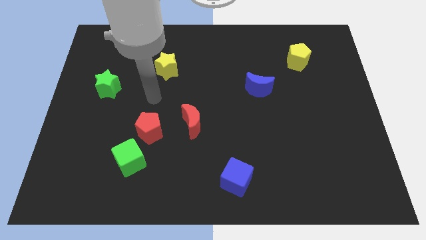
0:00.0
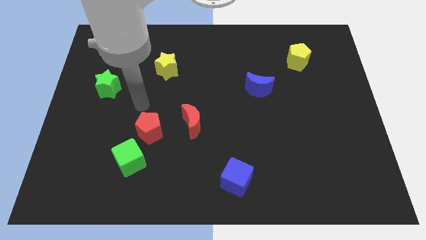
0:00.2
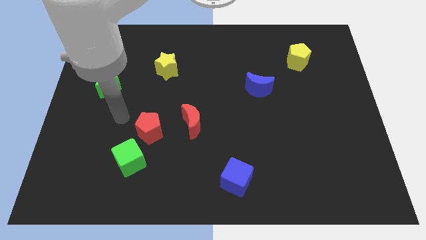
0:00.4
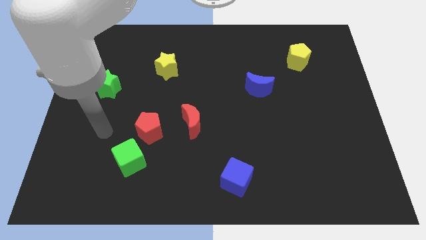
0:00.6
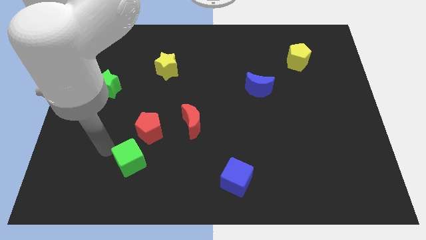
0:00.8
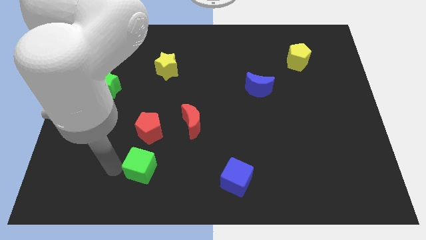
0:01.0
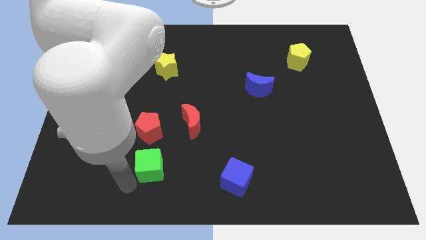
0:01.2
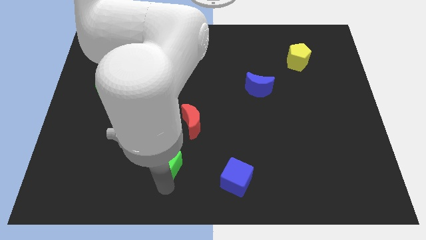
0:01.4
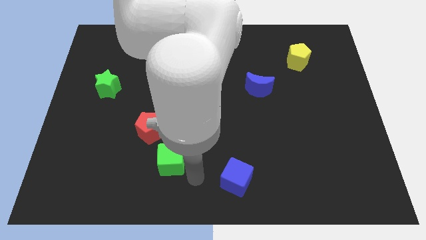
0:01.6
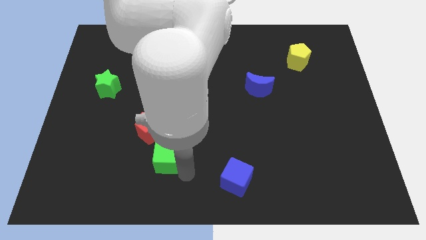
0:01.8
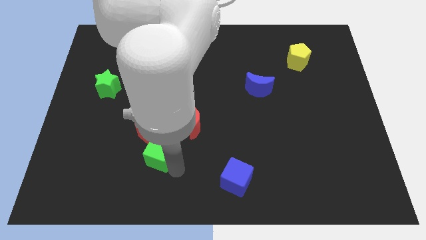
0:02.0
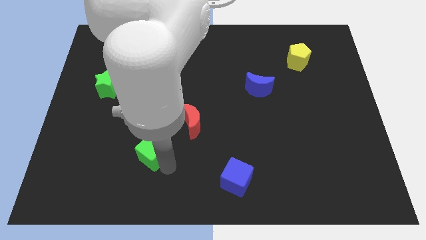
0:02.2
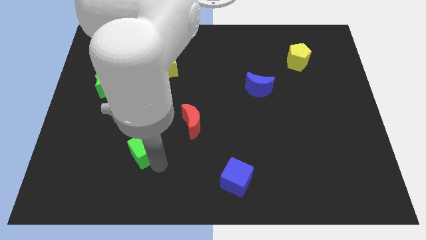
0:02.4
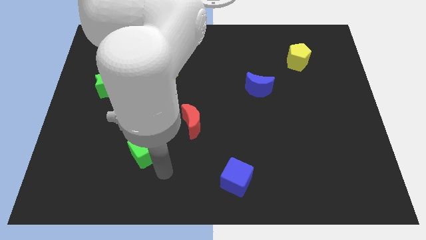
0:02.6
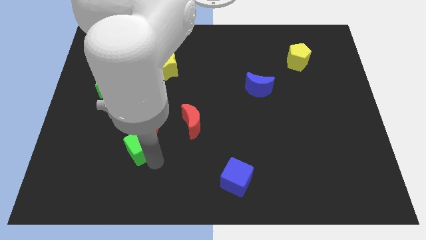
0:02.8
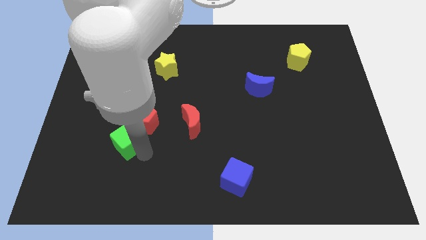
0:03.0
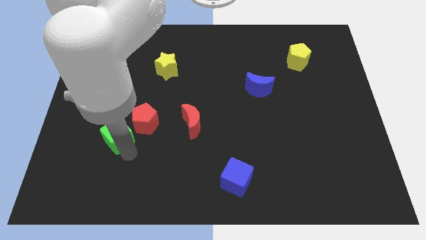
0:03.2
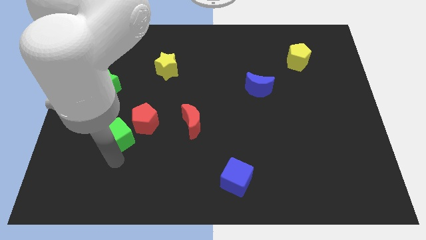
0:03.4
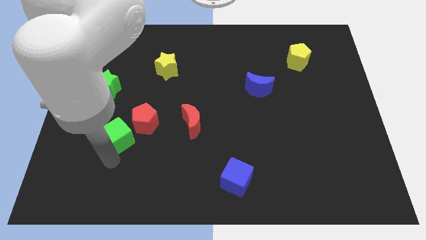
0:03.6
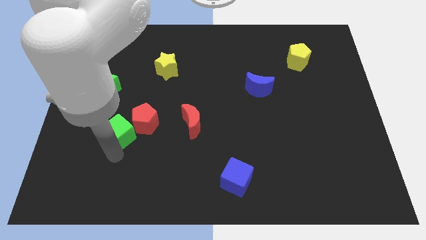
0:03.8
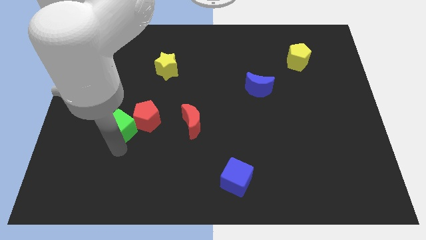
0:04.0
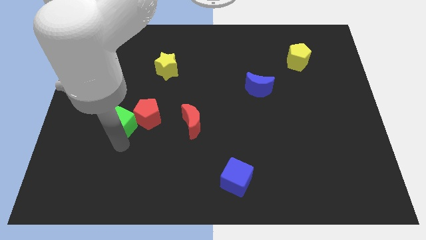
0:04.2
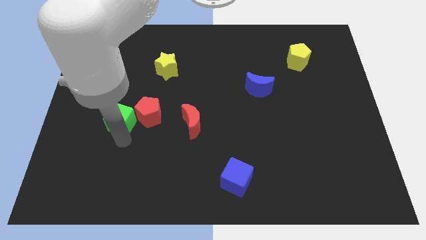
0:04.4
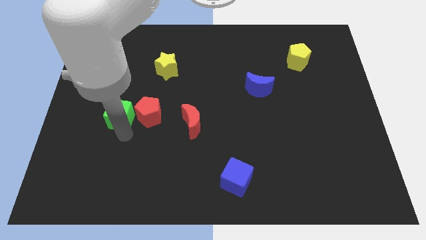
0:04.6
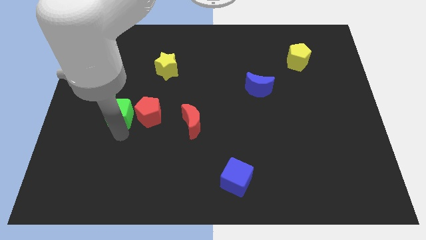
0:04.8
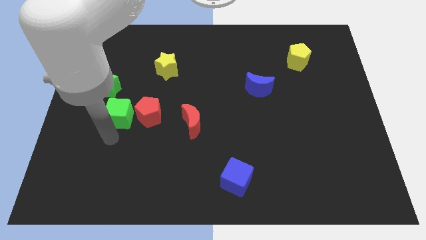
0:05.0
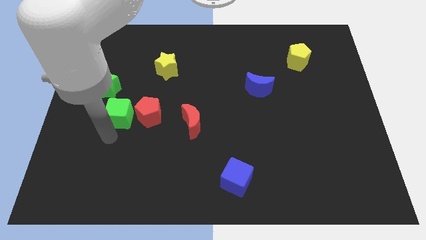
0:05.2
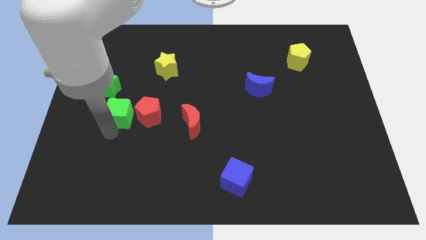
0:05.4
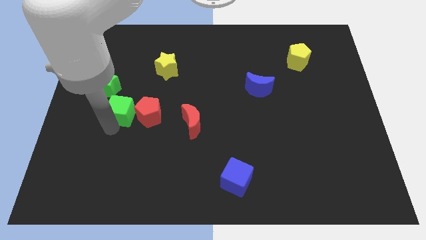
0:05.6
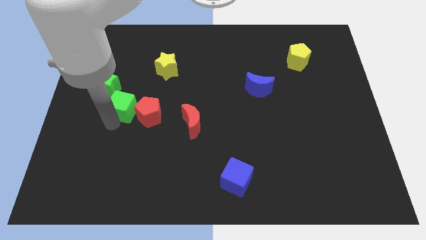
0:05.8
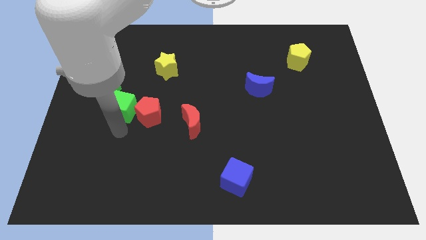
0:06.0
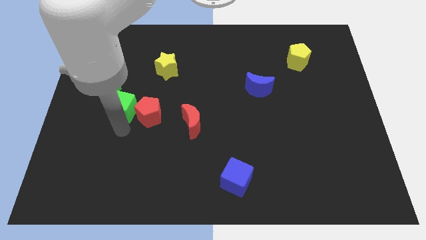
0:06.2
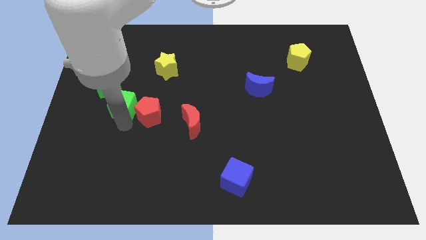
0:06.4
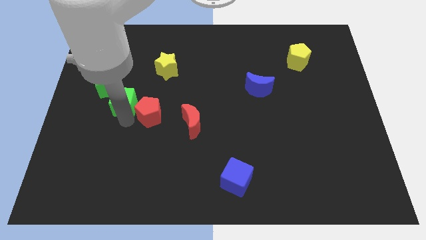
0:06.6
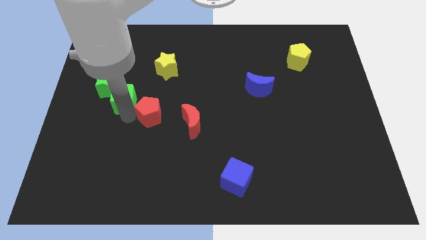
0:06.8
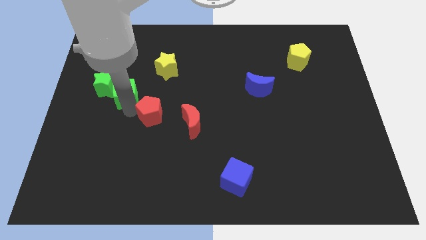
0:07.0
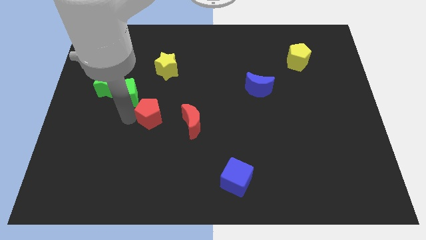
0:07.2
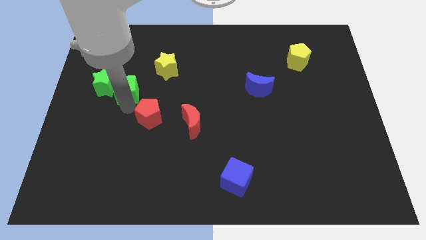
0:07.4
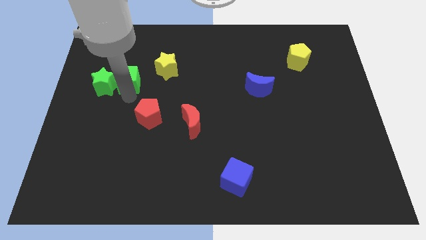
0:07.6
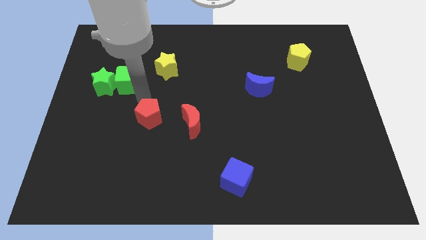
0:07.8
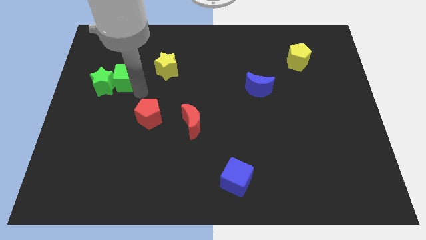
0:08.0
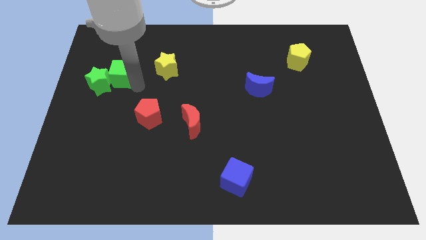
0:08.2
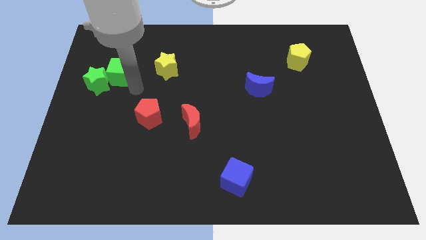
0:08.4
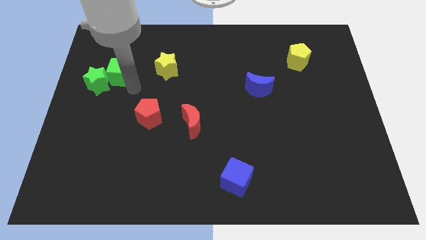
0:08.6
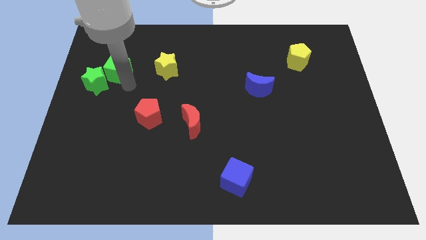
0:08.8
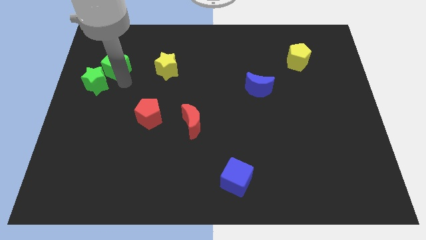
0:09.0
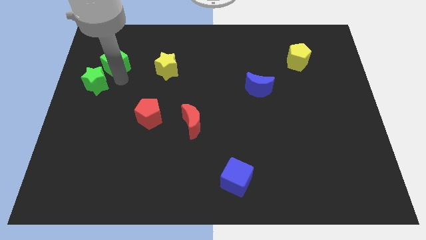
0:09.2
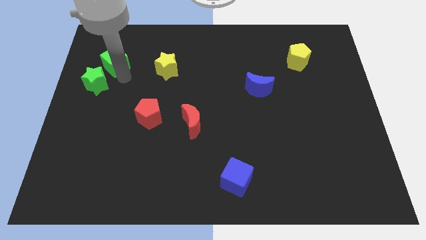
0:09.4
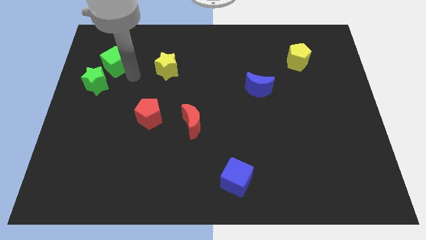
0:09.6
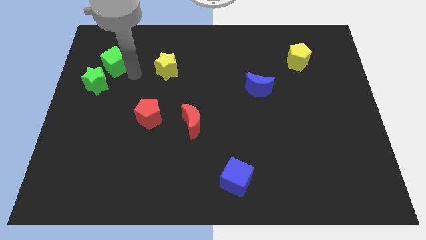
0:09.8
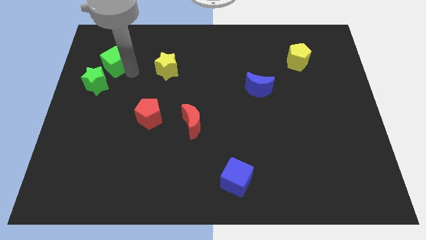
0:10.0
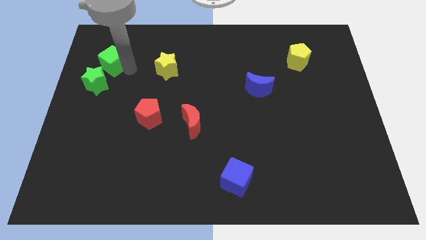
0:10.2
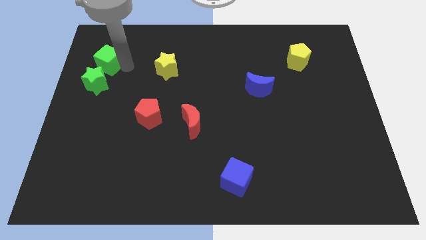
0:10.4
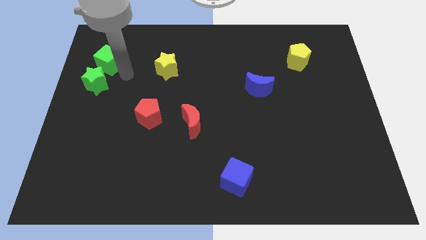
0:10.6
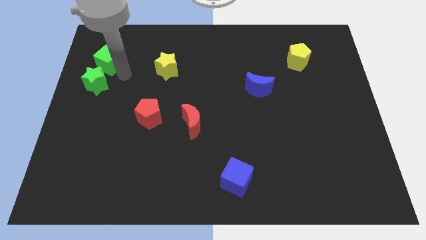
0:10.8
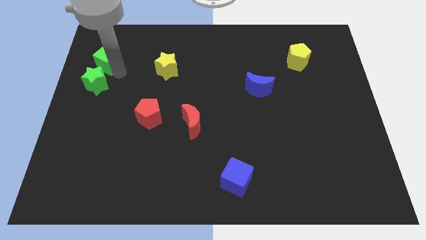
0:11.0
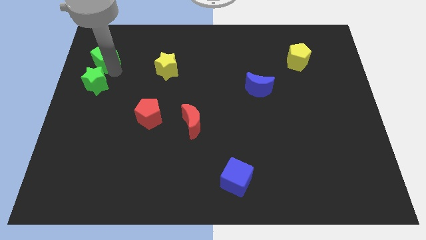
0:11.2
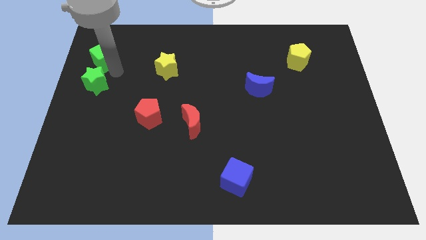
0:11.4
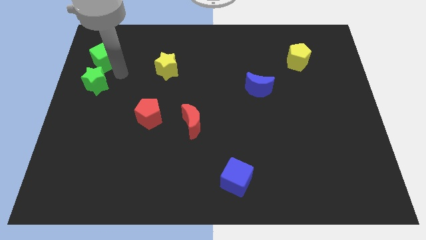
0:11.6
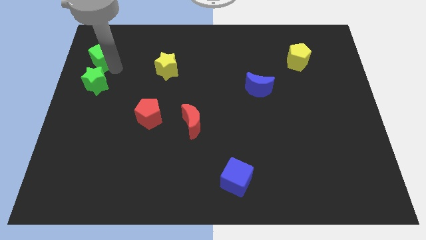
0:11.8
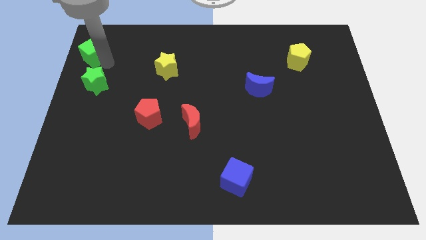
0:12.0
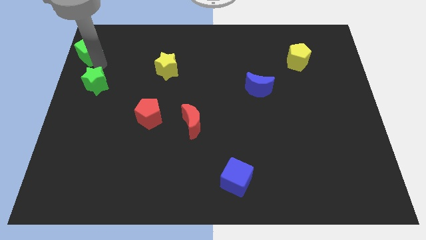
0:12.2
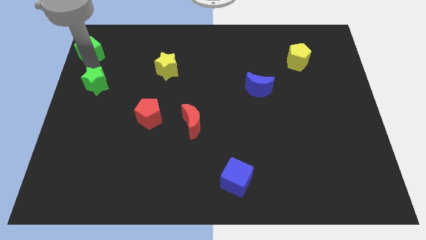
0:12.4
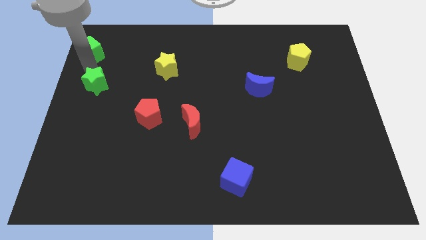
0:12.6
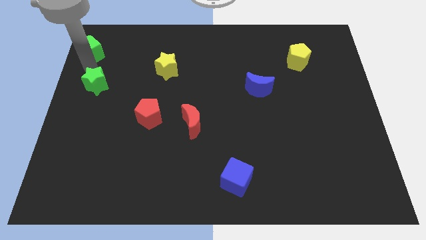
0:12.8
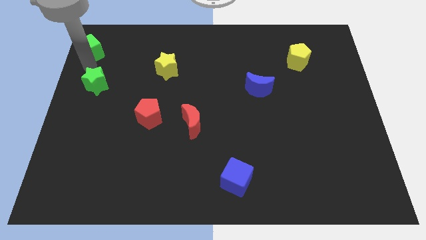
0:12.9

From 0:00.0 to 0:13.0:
slide the green cube to the top left

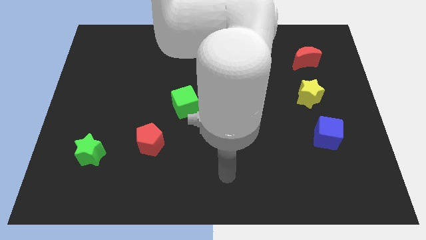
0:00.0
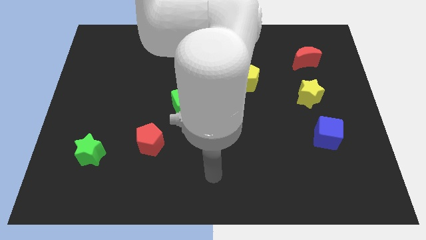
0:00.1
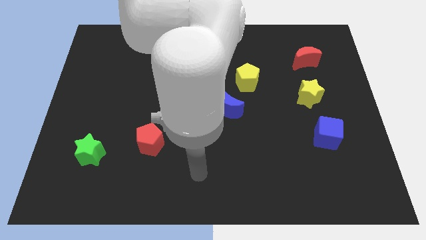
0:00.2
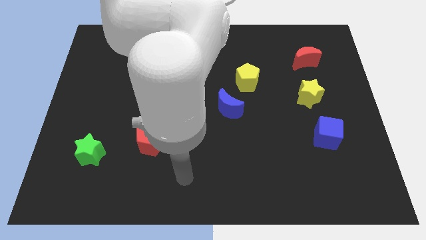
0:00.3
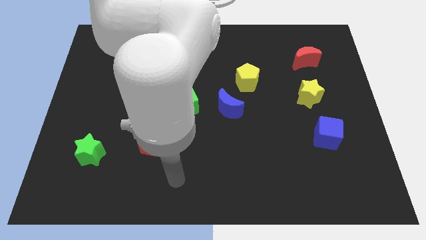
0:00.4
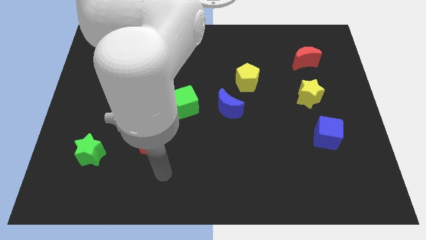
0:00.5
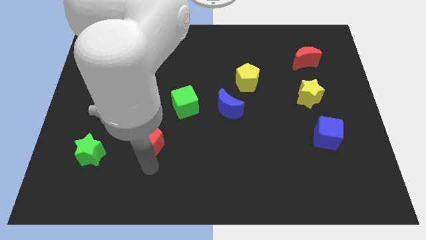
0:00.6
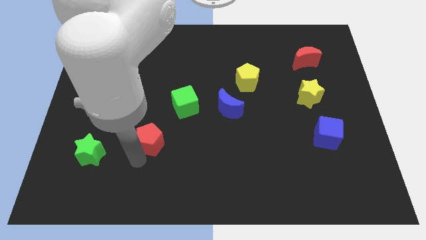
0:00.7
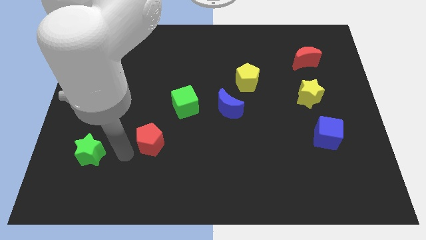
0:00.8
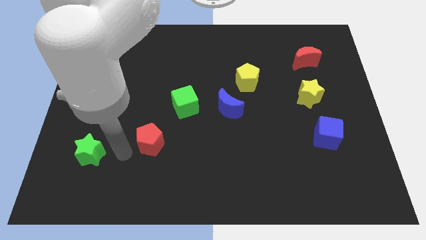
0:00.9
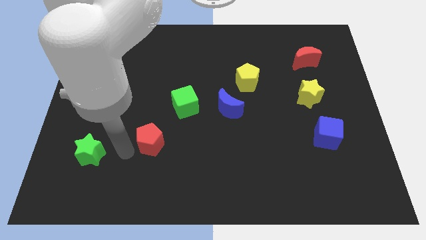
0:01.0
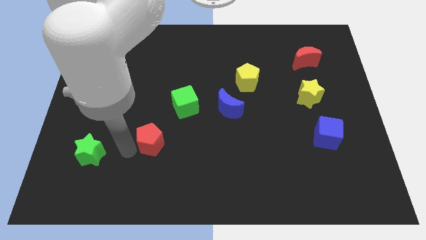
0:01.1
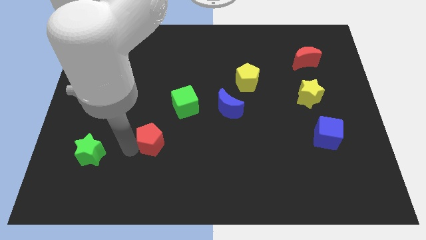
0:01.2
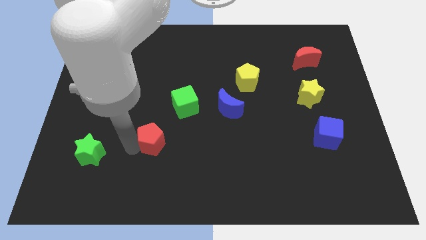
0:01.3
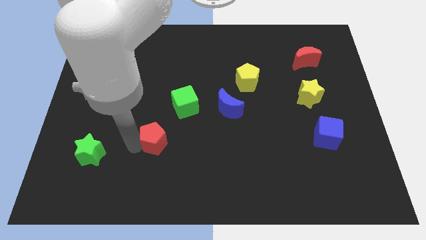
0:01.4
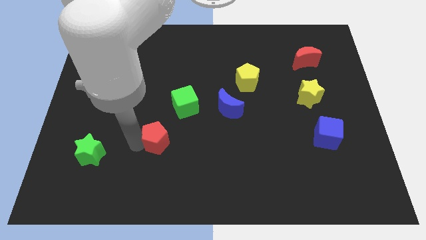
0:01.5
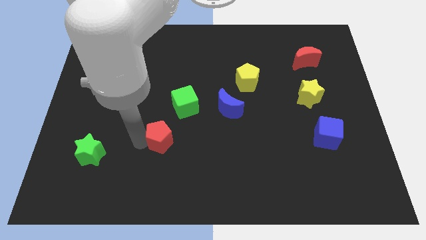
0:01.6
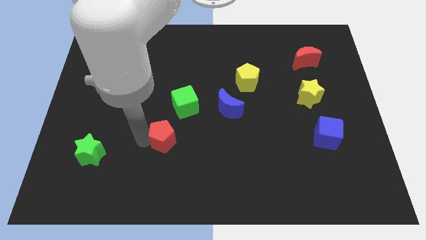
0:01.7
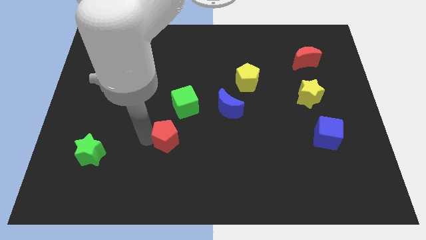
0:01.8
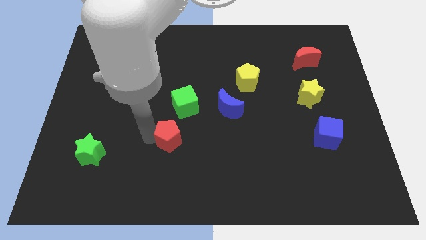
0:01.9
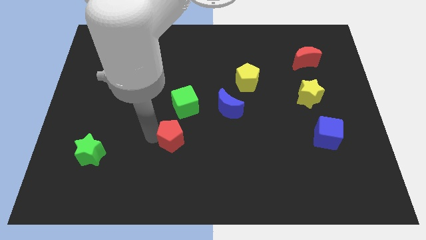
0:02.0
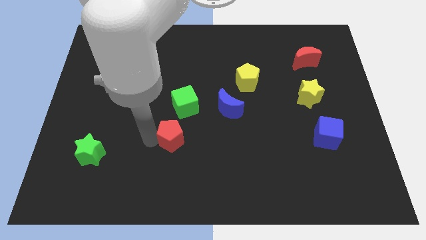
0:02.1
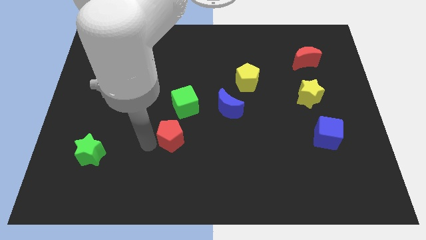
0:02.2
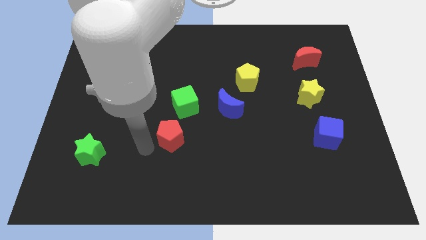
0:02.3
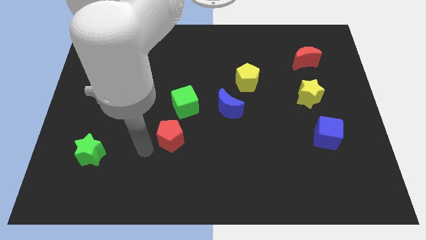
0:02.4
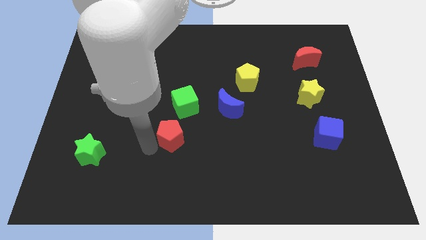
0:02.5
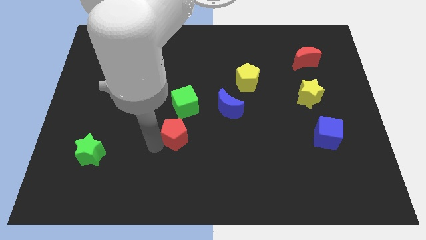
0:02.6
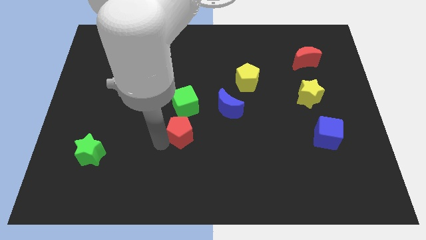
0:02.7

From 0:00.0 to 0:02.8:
push the red pentagon to the center of the board
